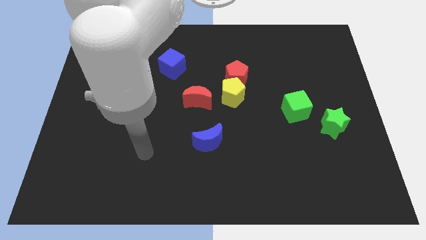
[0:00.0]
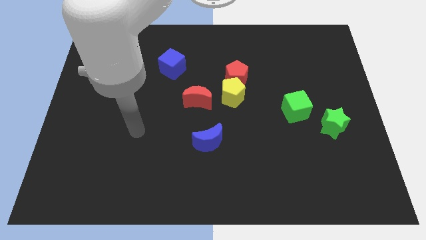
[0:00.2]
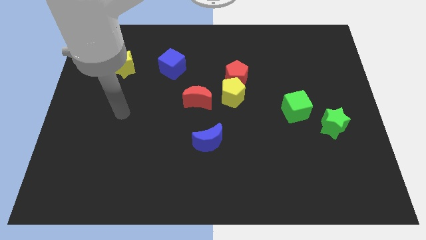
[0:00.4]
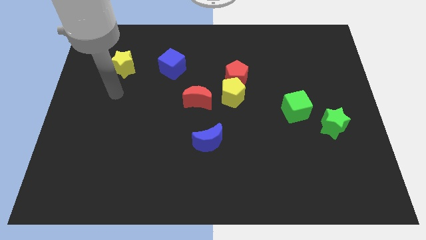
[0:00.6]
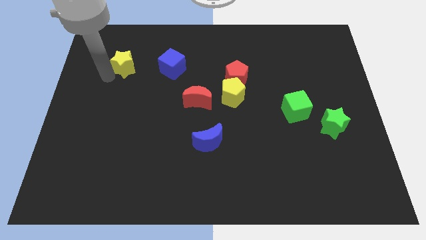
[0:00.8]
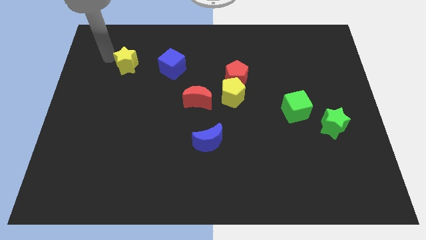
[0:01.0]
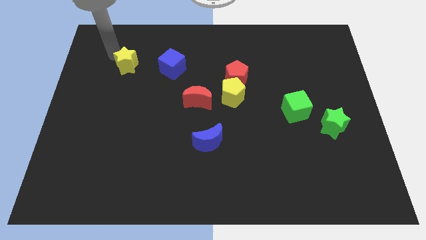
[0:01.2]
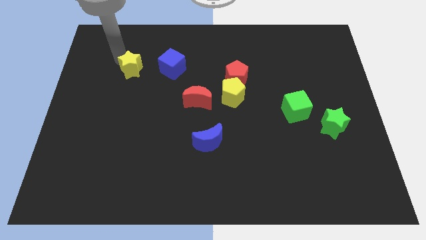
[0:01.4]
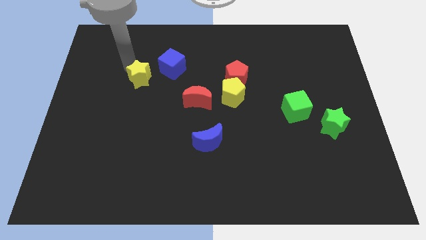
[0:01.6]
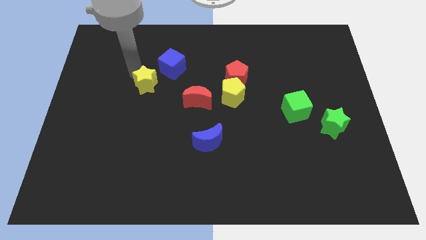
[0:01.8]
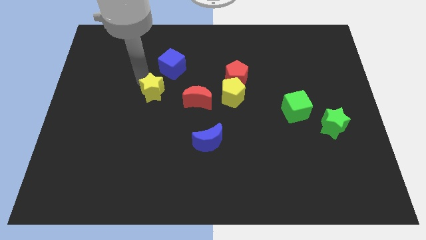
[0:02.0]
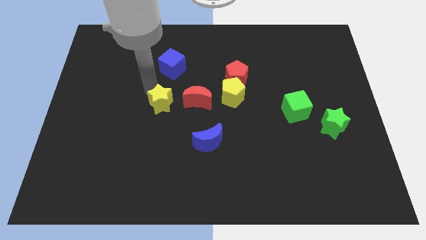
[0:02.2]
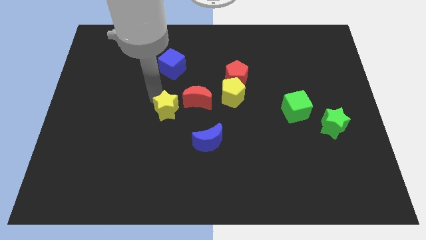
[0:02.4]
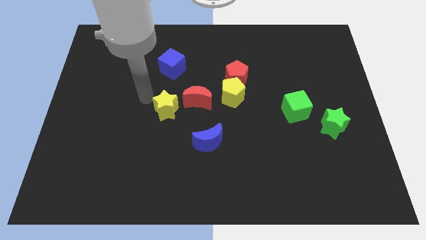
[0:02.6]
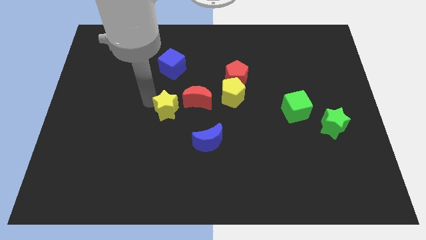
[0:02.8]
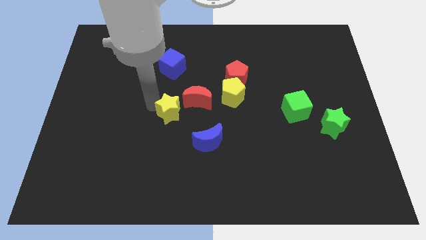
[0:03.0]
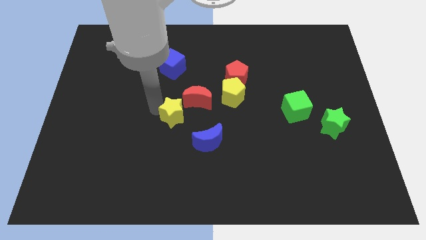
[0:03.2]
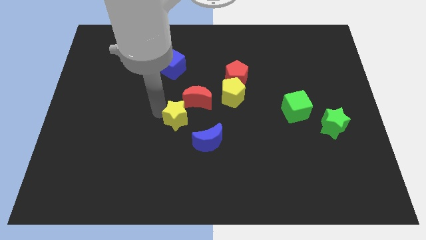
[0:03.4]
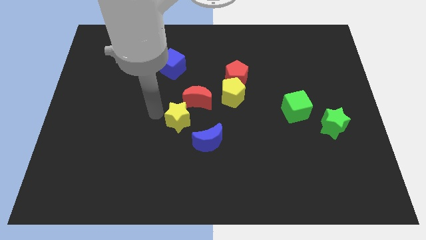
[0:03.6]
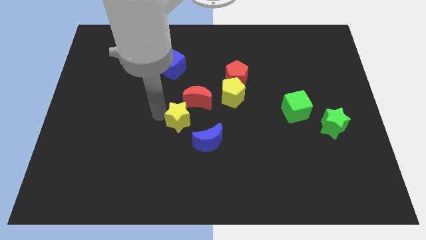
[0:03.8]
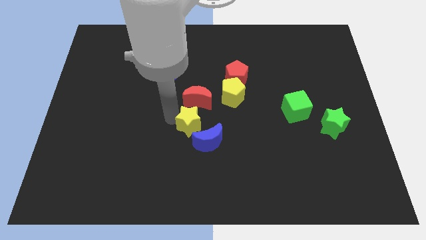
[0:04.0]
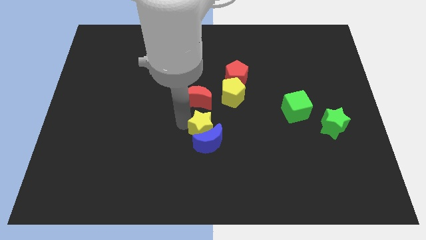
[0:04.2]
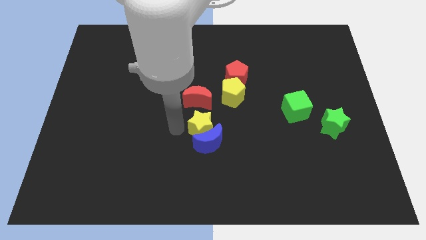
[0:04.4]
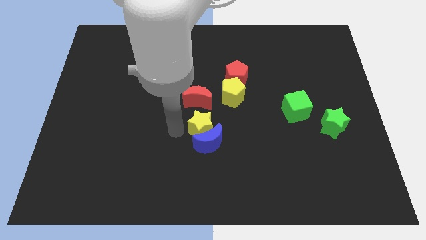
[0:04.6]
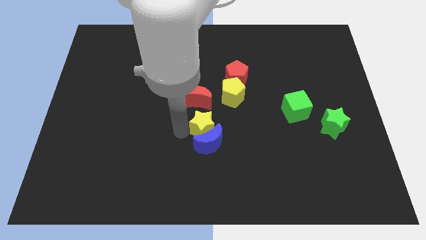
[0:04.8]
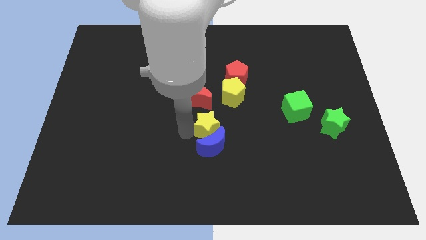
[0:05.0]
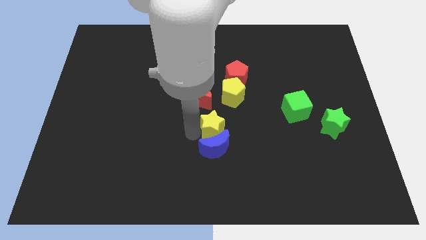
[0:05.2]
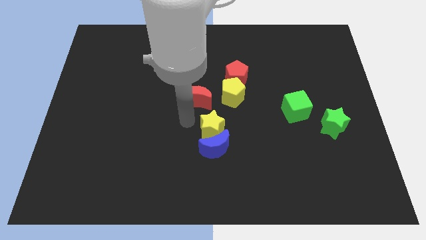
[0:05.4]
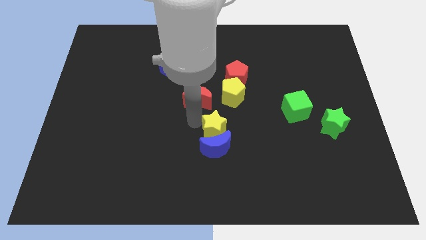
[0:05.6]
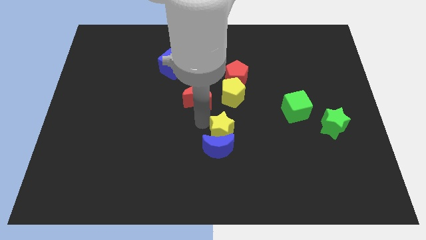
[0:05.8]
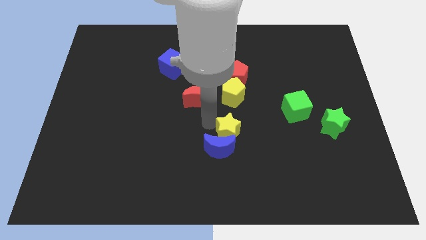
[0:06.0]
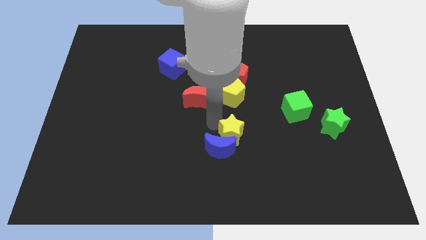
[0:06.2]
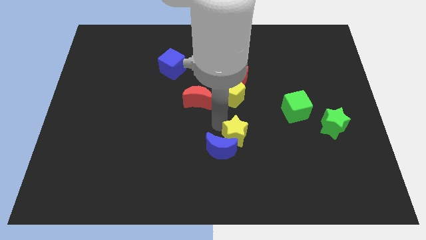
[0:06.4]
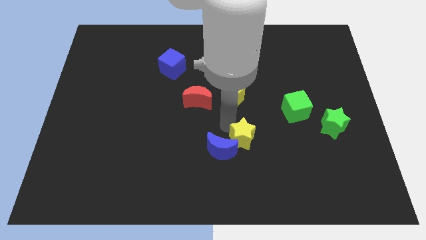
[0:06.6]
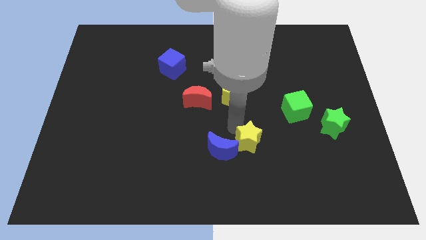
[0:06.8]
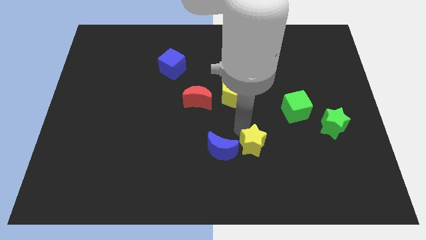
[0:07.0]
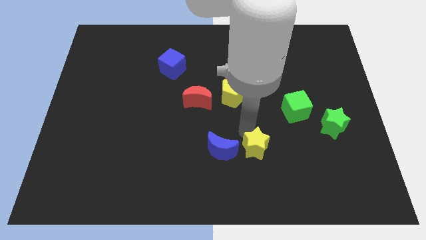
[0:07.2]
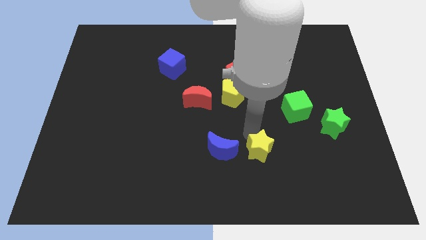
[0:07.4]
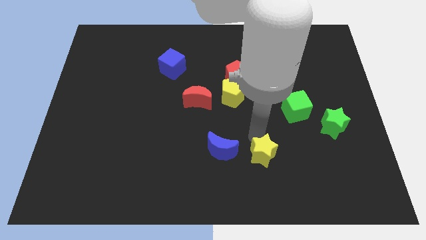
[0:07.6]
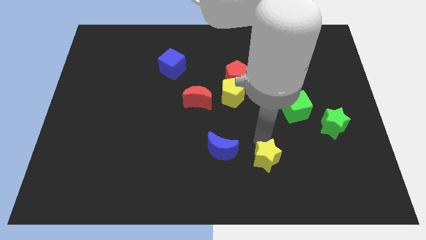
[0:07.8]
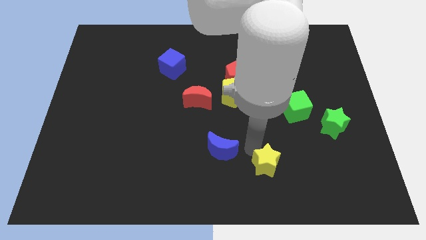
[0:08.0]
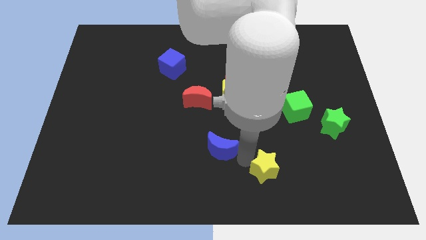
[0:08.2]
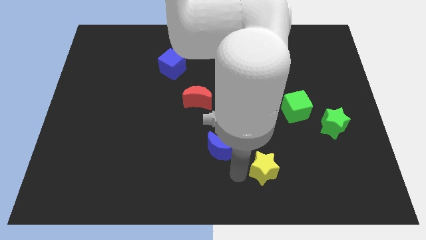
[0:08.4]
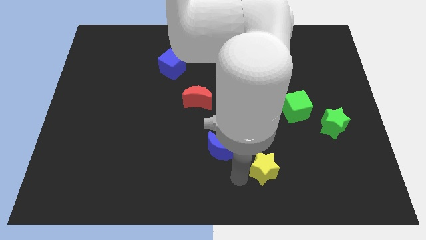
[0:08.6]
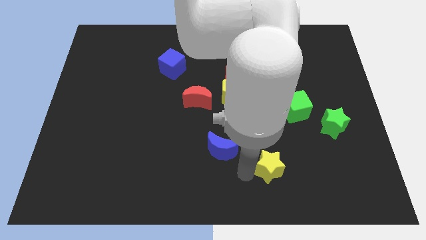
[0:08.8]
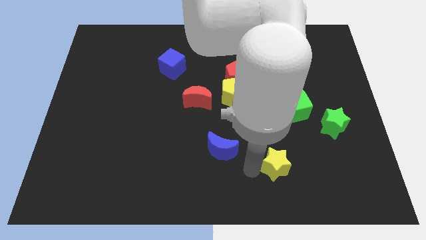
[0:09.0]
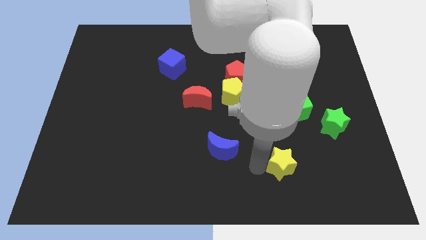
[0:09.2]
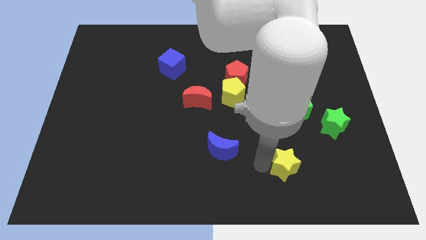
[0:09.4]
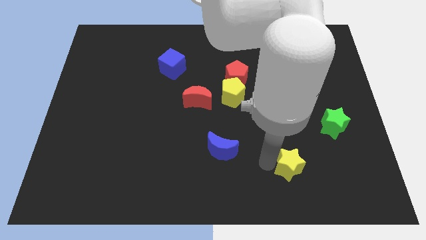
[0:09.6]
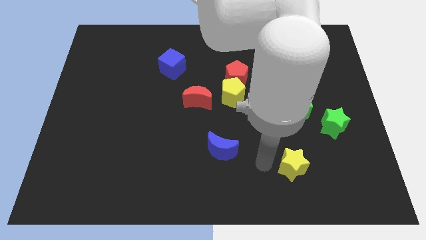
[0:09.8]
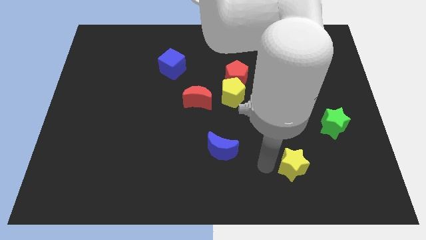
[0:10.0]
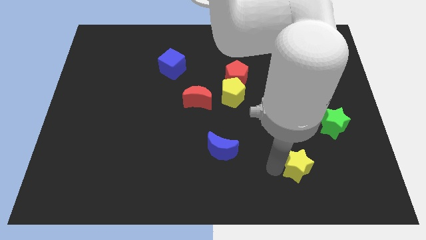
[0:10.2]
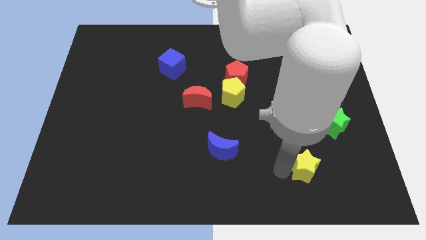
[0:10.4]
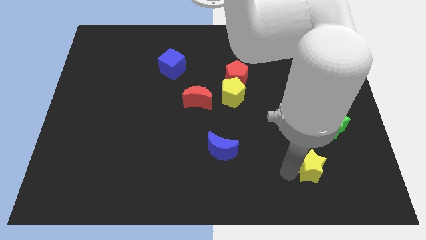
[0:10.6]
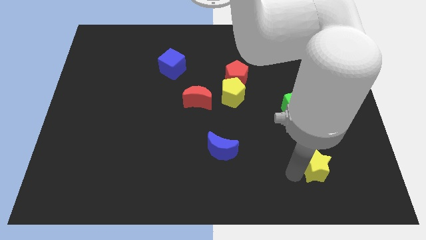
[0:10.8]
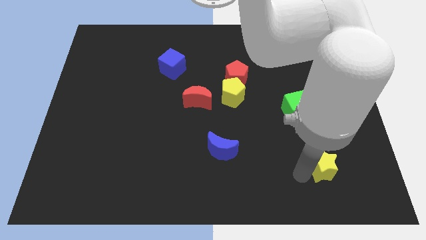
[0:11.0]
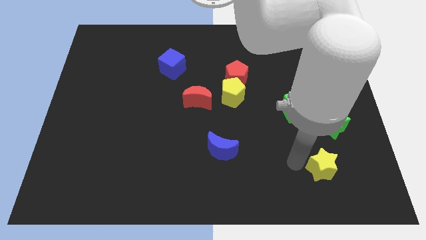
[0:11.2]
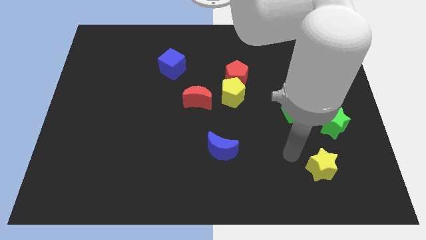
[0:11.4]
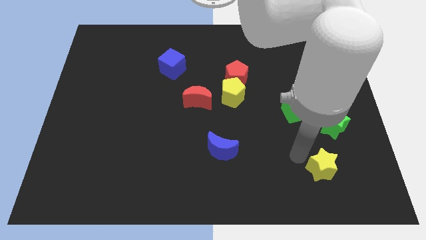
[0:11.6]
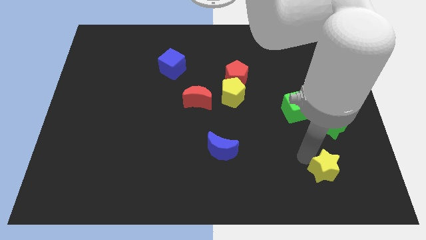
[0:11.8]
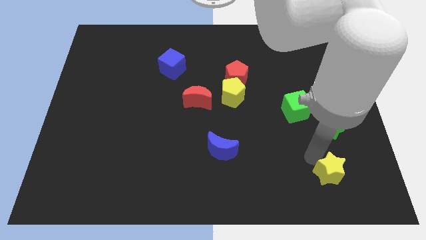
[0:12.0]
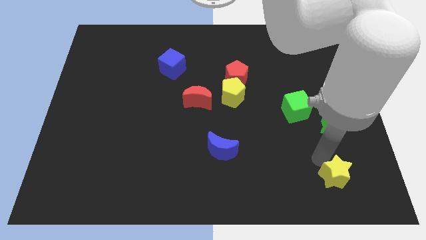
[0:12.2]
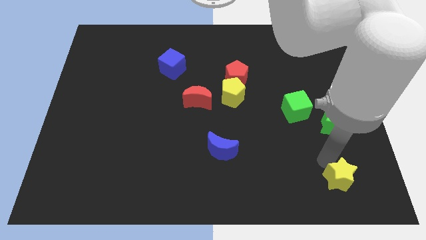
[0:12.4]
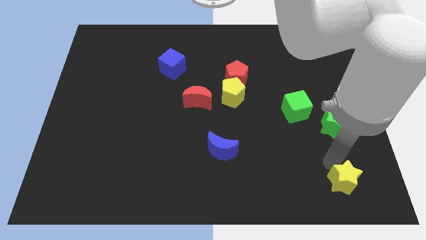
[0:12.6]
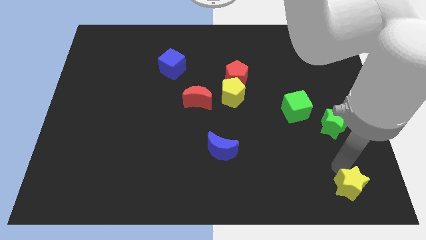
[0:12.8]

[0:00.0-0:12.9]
put the yellow star to the bottom right

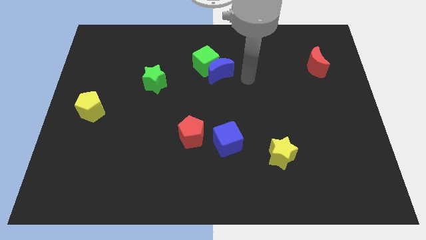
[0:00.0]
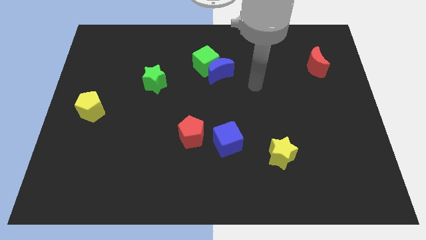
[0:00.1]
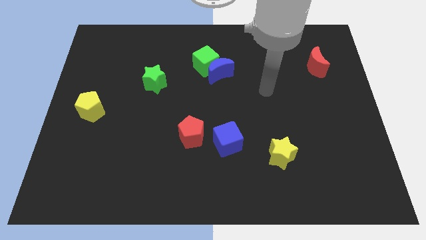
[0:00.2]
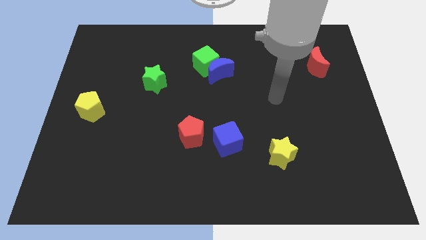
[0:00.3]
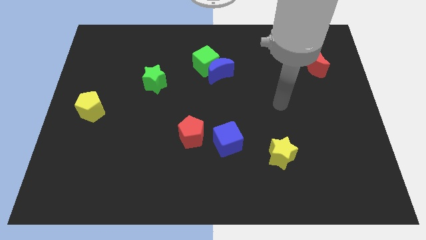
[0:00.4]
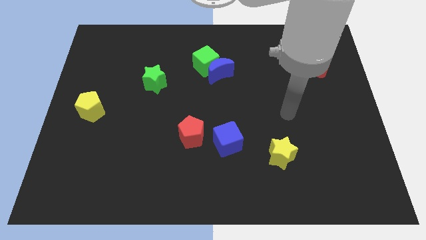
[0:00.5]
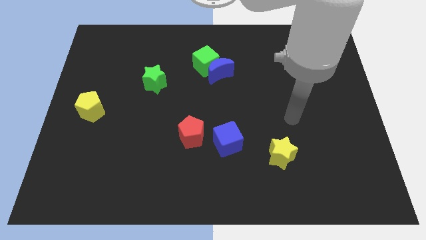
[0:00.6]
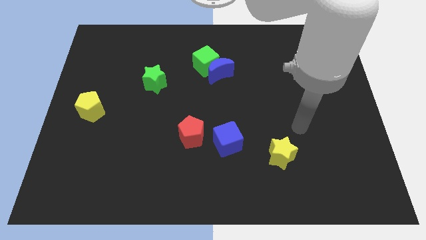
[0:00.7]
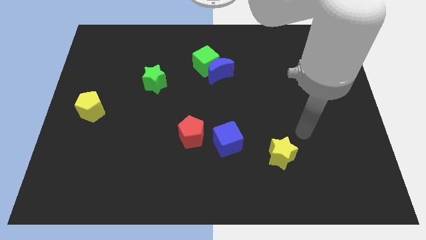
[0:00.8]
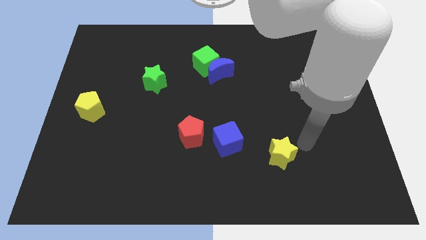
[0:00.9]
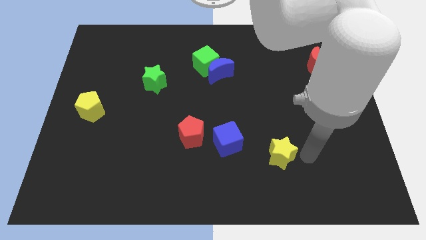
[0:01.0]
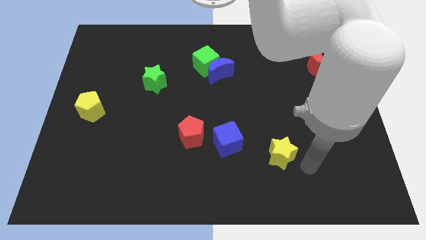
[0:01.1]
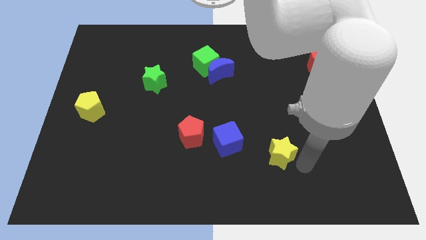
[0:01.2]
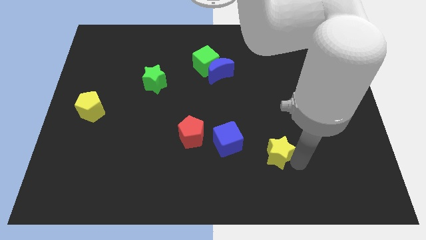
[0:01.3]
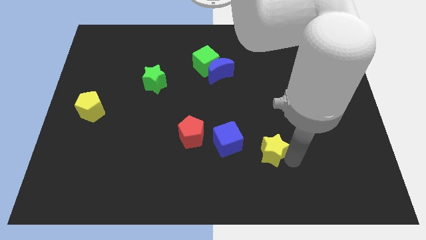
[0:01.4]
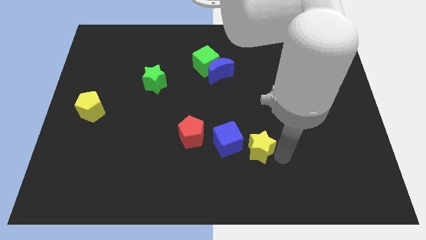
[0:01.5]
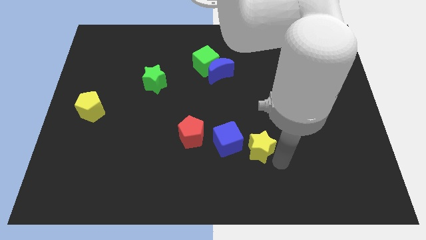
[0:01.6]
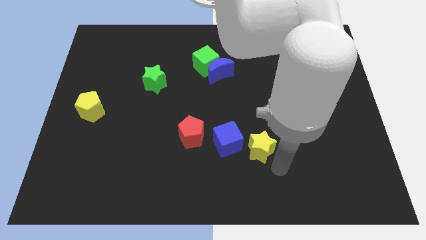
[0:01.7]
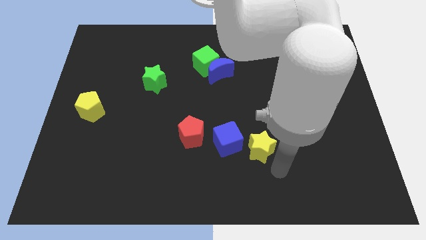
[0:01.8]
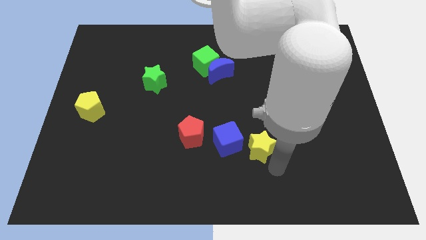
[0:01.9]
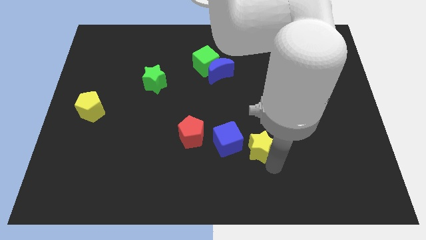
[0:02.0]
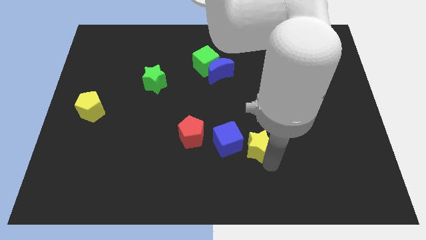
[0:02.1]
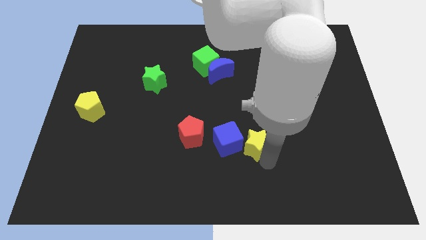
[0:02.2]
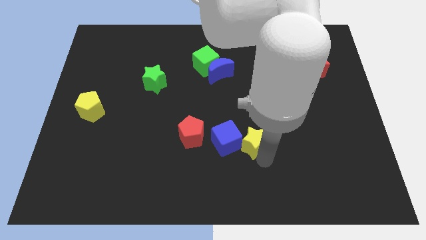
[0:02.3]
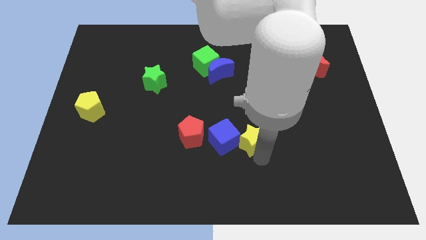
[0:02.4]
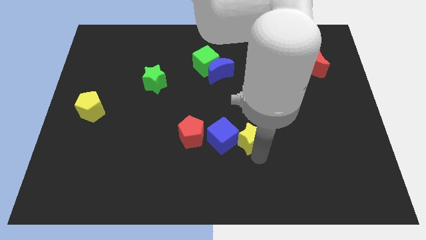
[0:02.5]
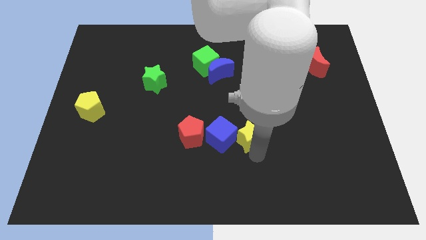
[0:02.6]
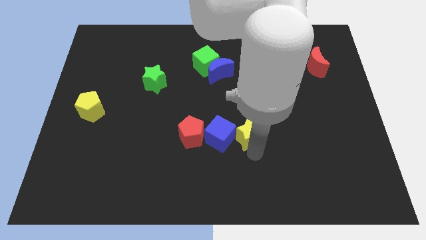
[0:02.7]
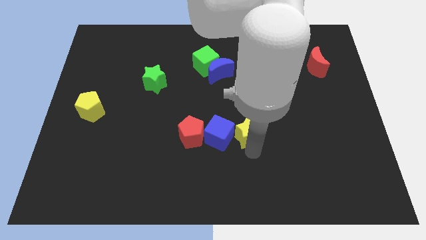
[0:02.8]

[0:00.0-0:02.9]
move the yellow star to the center
